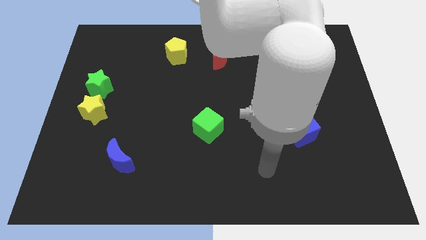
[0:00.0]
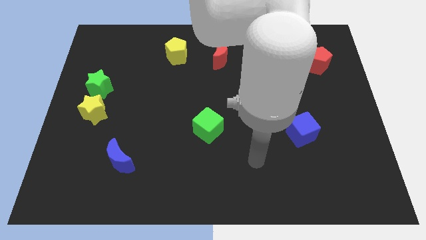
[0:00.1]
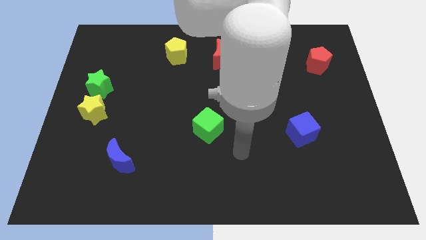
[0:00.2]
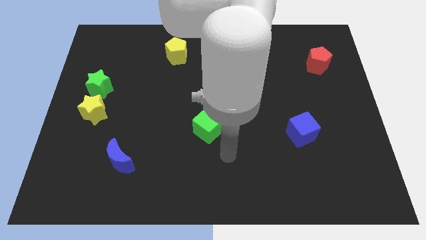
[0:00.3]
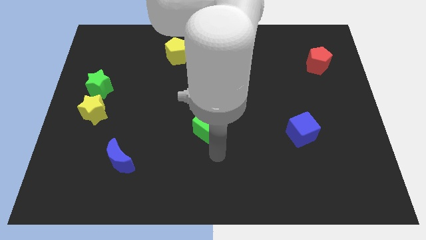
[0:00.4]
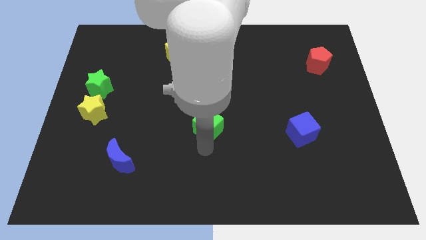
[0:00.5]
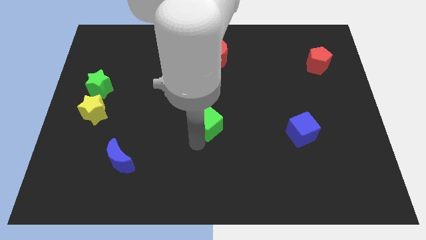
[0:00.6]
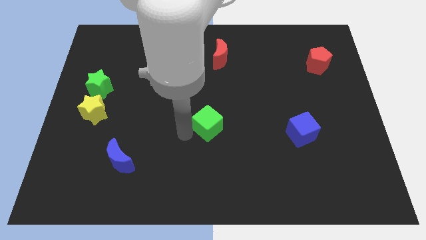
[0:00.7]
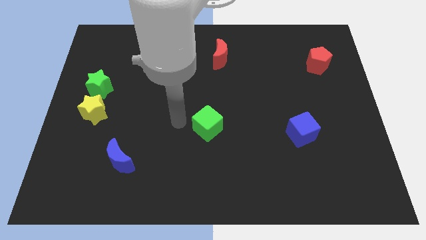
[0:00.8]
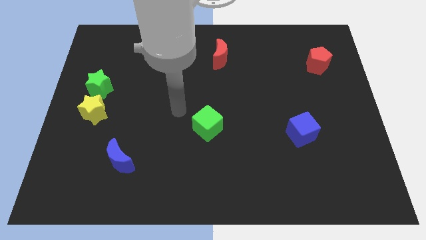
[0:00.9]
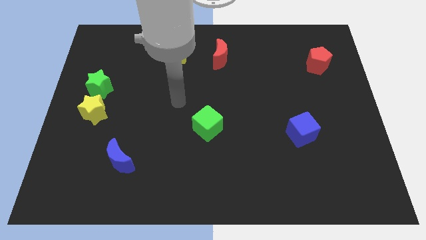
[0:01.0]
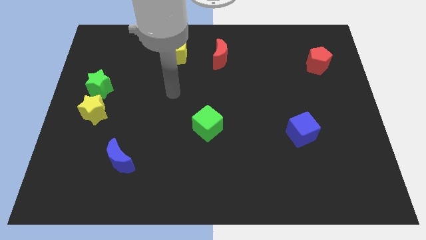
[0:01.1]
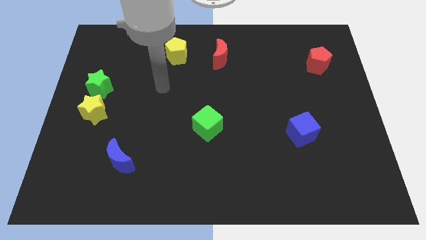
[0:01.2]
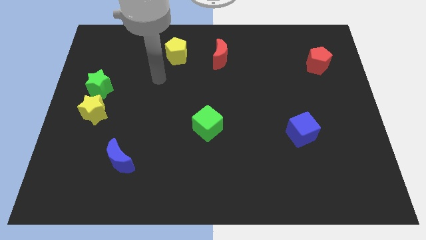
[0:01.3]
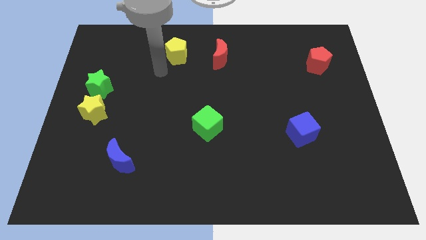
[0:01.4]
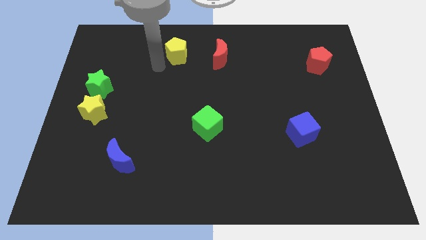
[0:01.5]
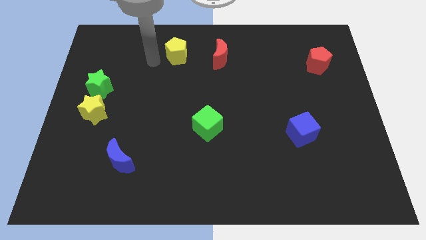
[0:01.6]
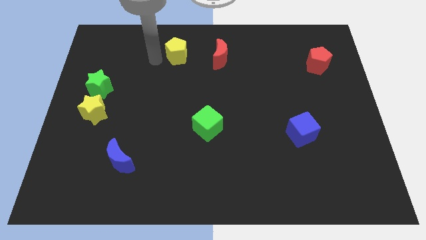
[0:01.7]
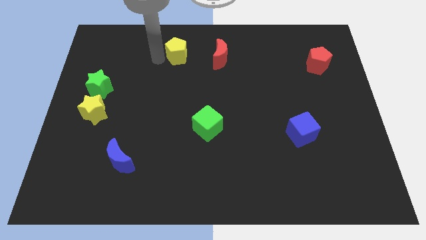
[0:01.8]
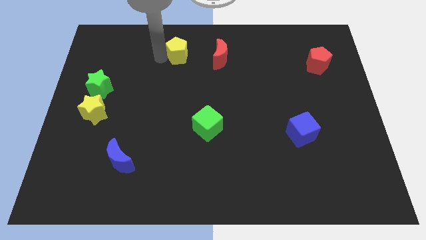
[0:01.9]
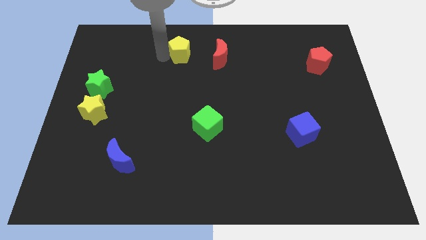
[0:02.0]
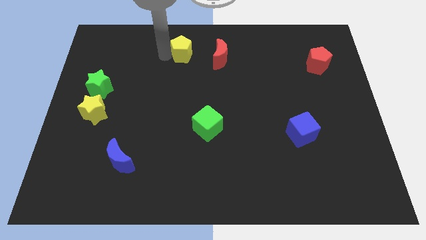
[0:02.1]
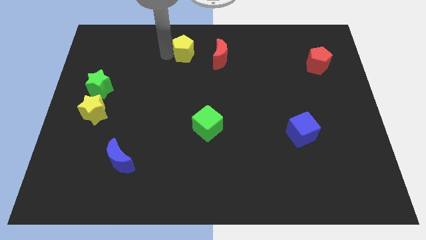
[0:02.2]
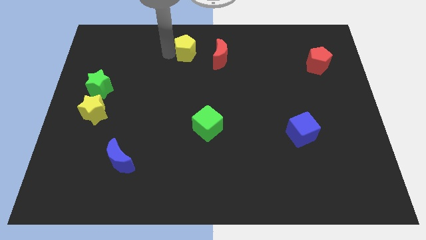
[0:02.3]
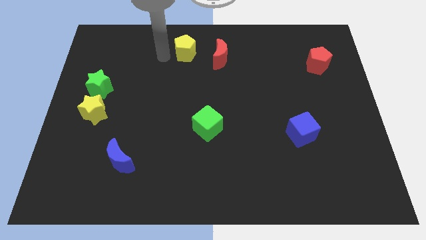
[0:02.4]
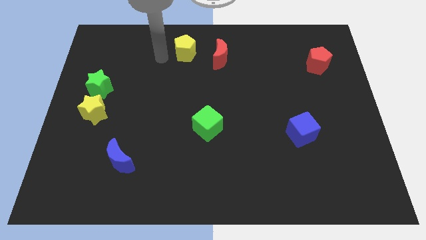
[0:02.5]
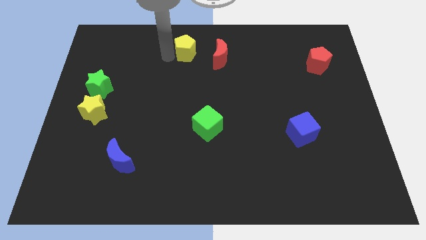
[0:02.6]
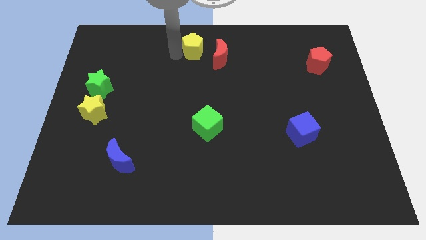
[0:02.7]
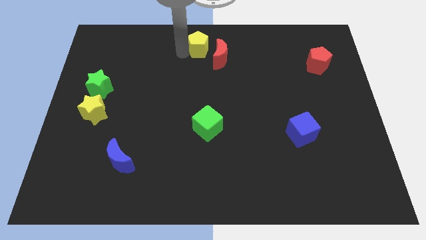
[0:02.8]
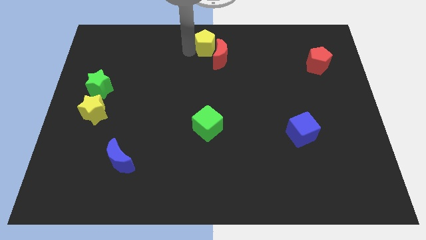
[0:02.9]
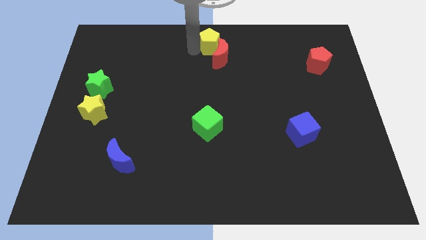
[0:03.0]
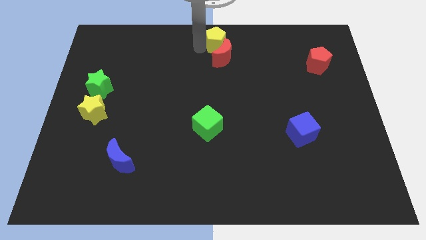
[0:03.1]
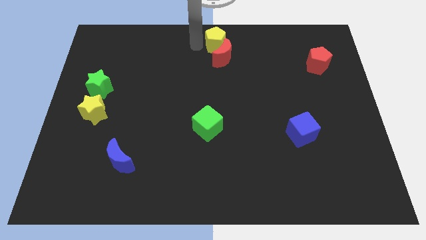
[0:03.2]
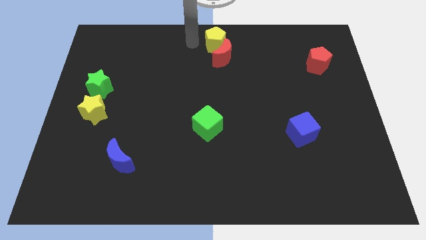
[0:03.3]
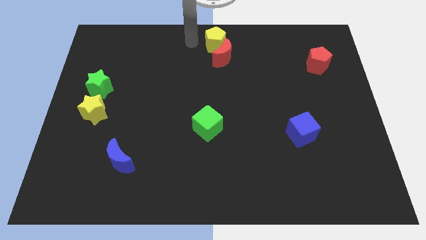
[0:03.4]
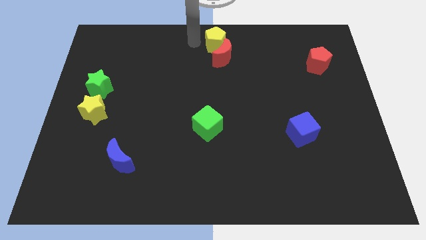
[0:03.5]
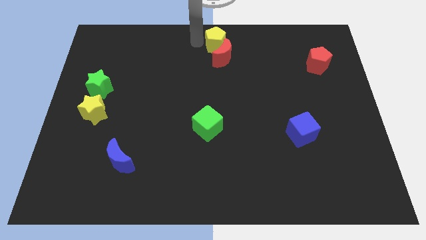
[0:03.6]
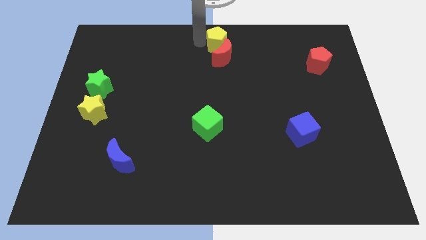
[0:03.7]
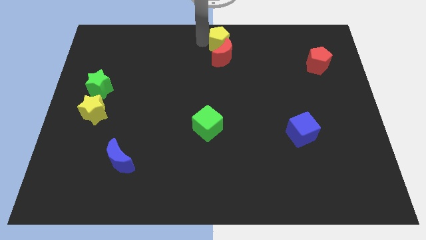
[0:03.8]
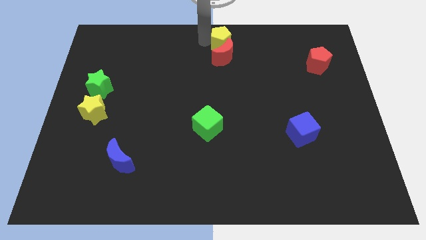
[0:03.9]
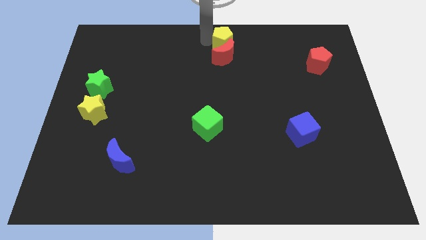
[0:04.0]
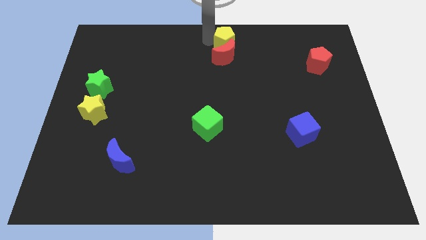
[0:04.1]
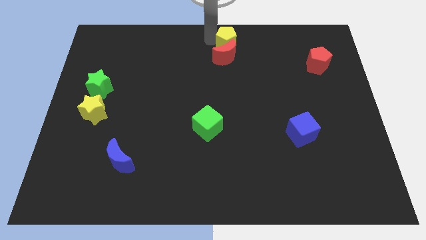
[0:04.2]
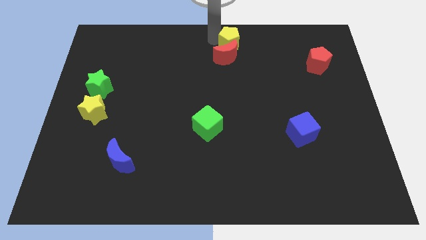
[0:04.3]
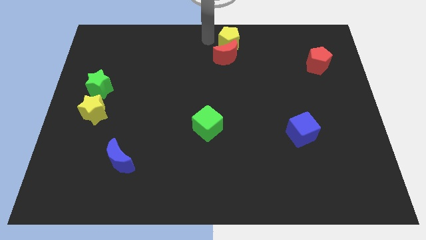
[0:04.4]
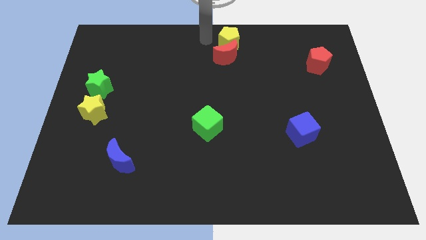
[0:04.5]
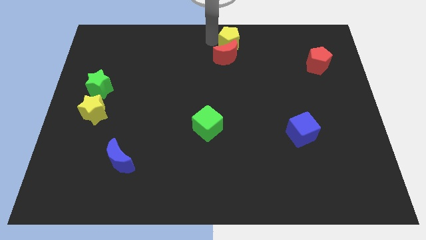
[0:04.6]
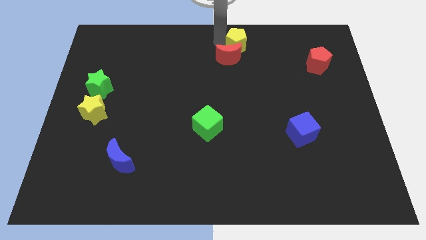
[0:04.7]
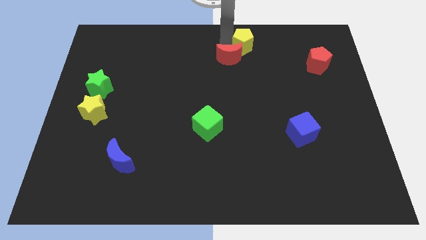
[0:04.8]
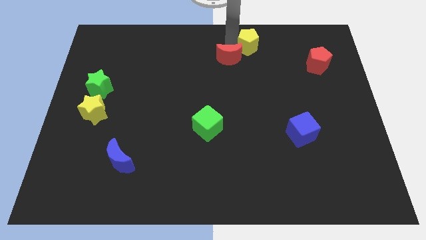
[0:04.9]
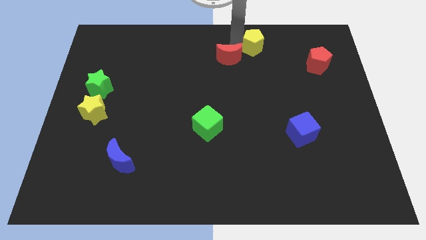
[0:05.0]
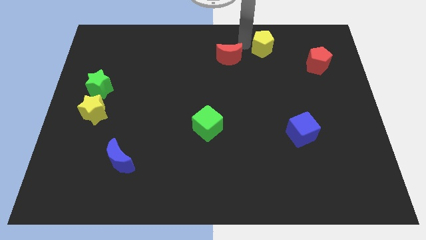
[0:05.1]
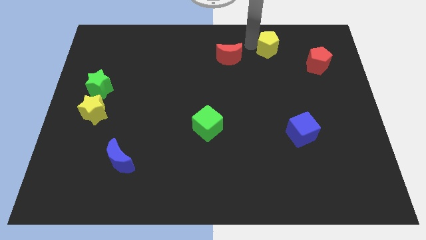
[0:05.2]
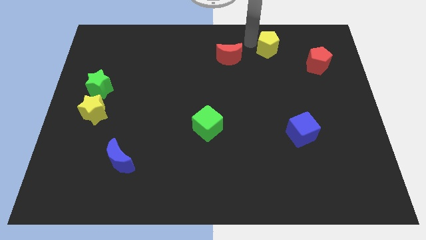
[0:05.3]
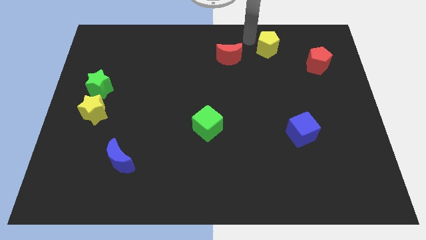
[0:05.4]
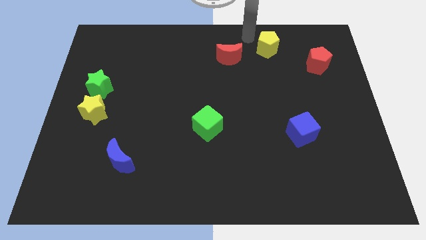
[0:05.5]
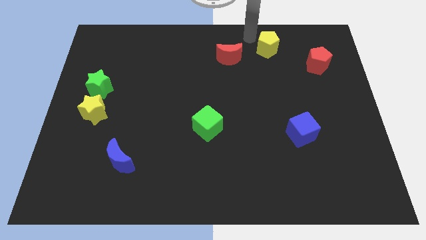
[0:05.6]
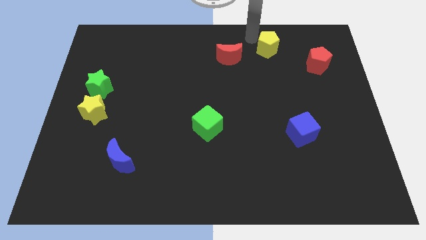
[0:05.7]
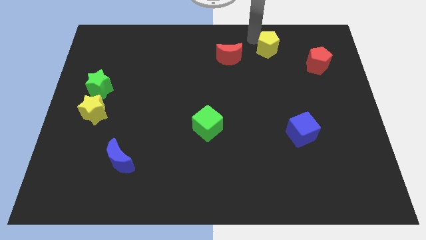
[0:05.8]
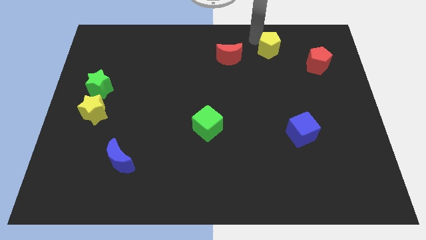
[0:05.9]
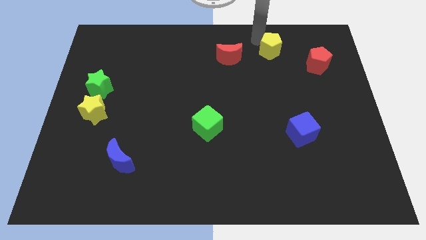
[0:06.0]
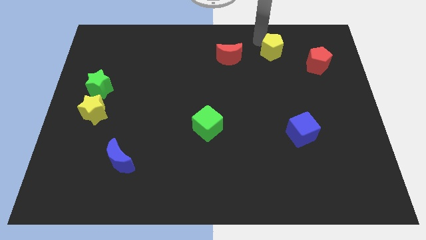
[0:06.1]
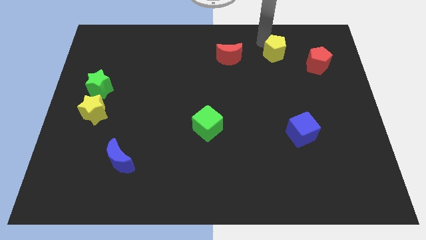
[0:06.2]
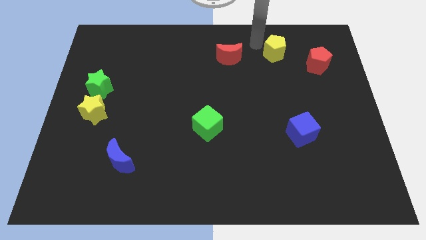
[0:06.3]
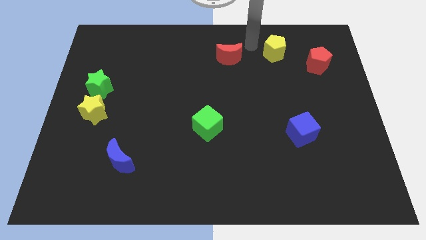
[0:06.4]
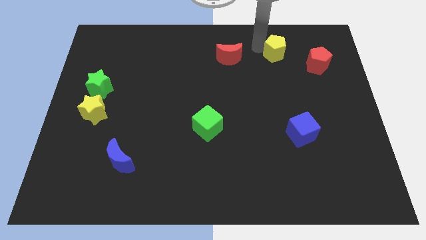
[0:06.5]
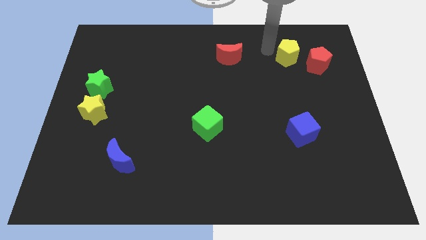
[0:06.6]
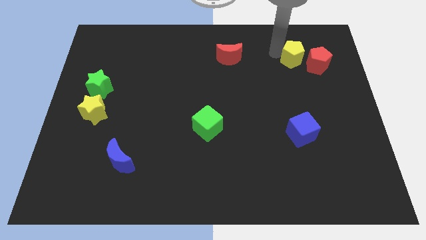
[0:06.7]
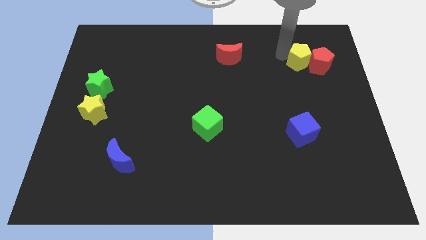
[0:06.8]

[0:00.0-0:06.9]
slide the yellow pentagon close to the red pentagon
